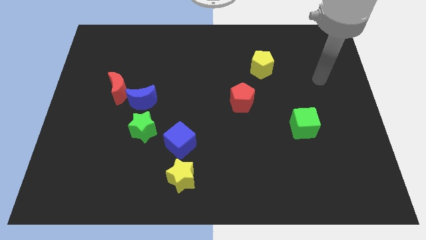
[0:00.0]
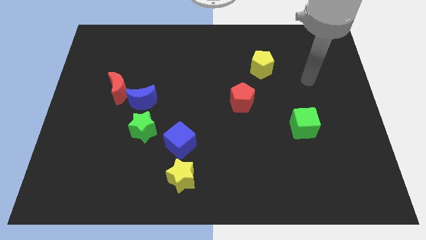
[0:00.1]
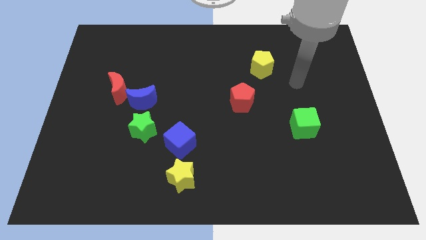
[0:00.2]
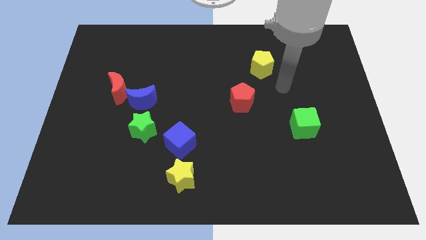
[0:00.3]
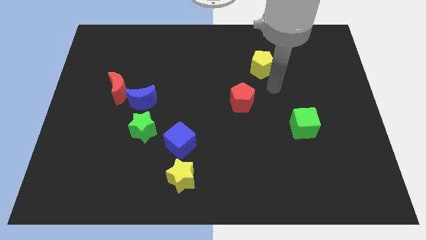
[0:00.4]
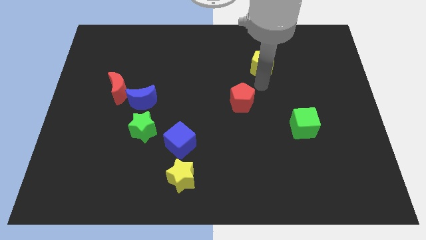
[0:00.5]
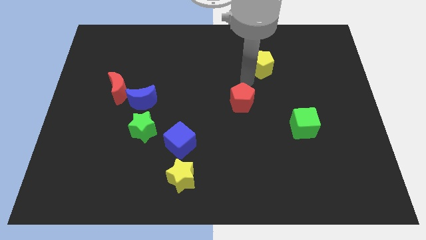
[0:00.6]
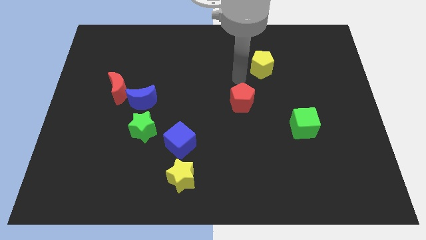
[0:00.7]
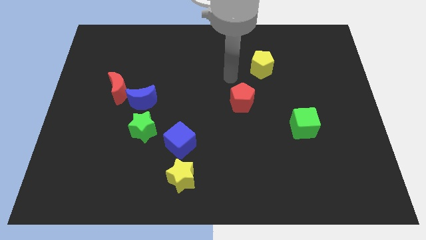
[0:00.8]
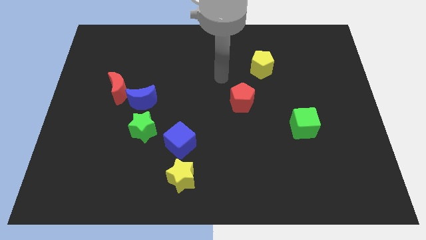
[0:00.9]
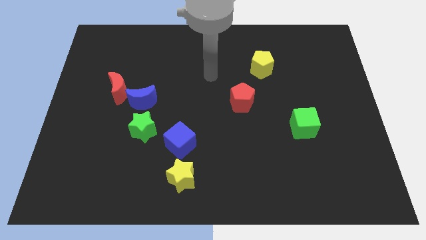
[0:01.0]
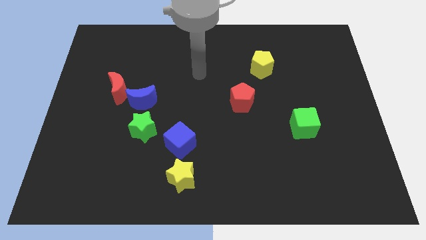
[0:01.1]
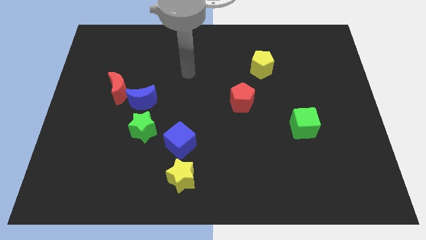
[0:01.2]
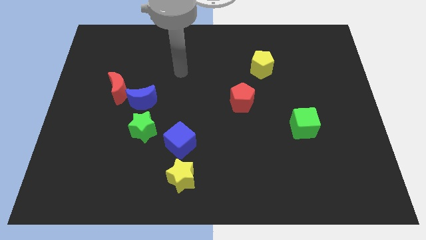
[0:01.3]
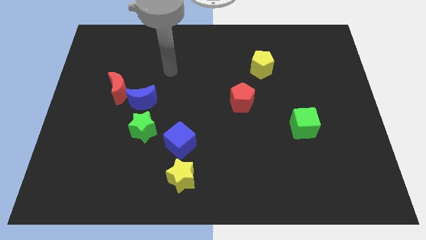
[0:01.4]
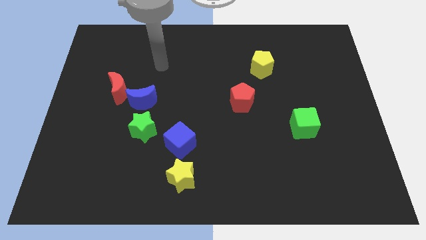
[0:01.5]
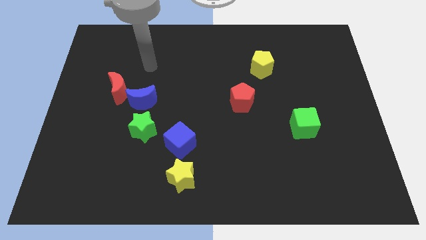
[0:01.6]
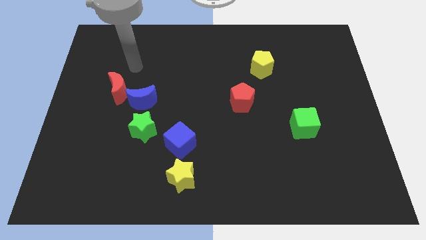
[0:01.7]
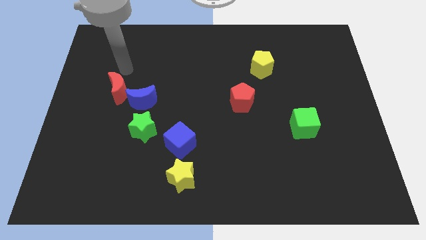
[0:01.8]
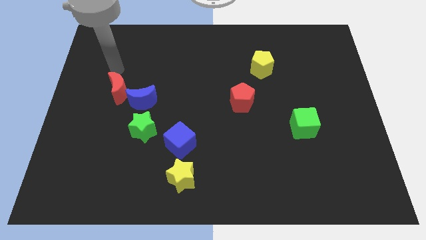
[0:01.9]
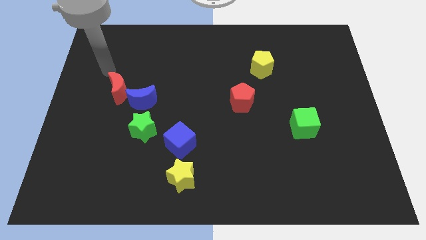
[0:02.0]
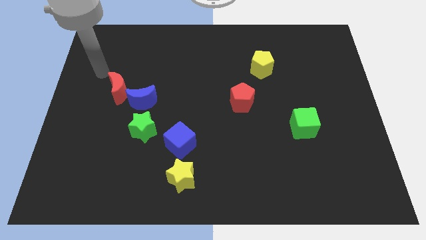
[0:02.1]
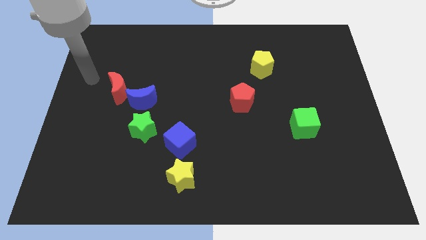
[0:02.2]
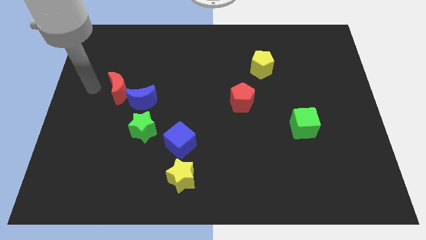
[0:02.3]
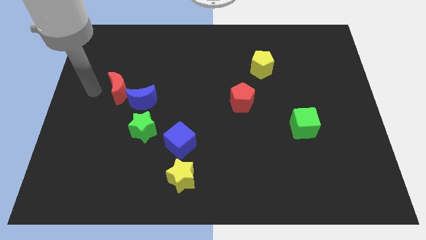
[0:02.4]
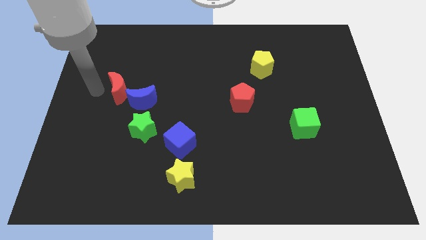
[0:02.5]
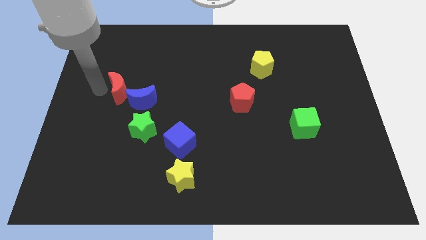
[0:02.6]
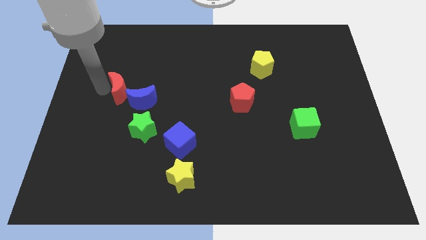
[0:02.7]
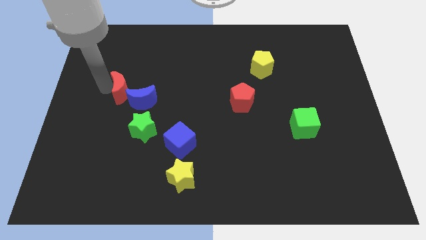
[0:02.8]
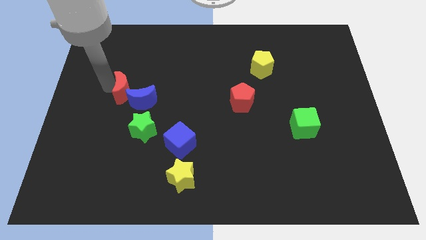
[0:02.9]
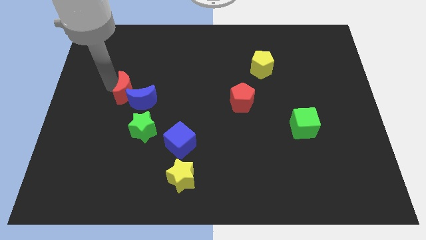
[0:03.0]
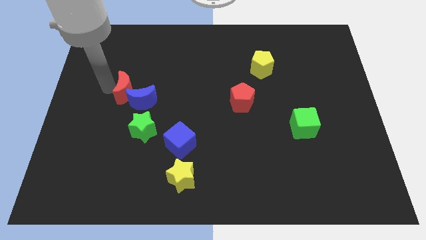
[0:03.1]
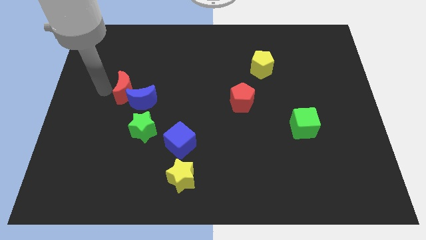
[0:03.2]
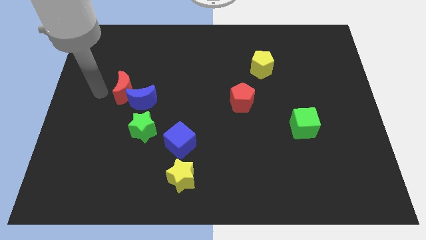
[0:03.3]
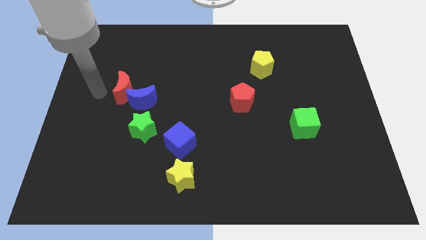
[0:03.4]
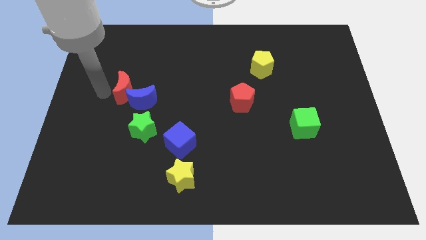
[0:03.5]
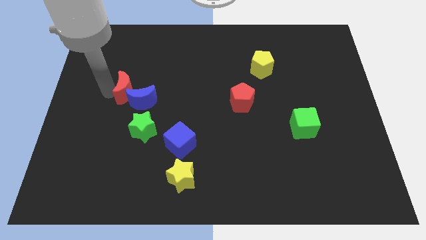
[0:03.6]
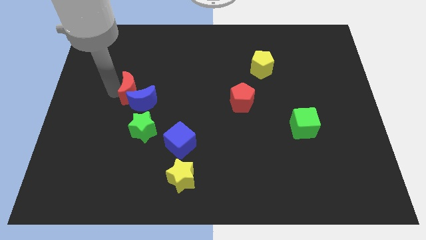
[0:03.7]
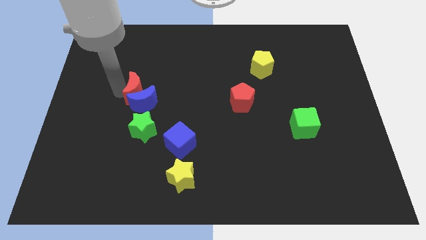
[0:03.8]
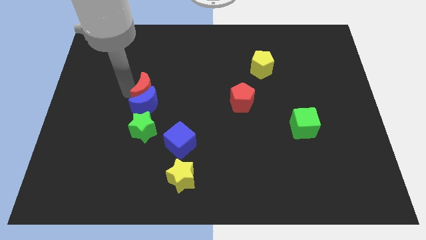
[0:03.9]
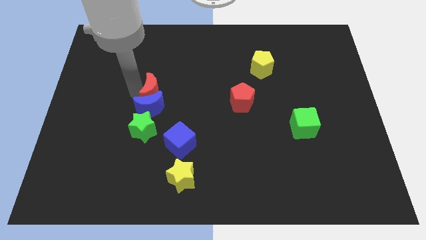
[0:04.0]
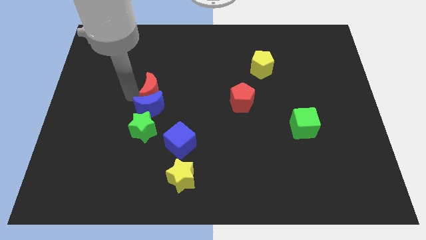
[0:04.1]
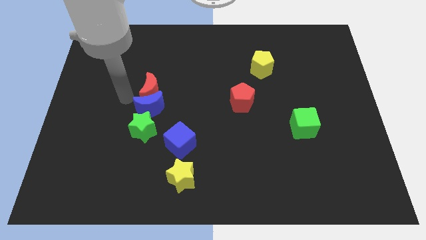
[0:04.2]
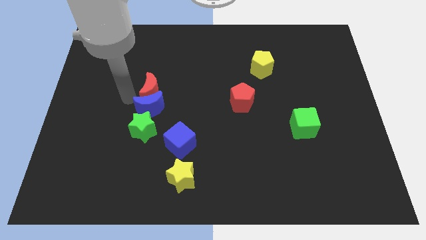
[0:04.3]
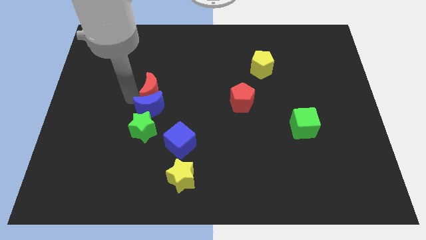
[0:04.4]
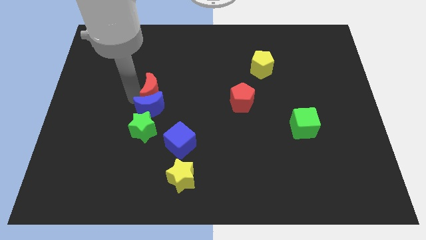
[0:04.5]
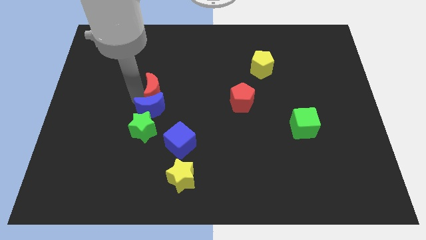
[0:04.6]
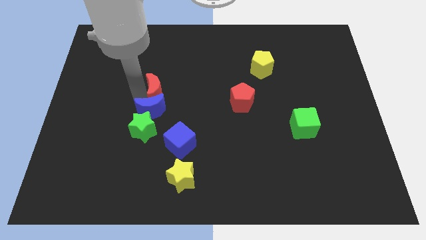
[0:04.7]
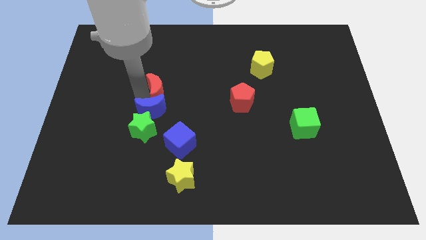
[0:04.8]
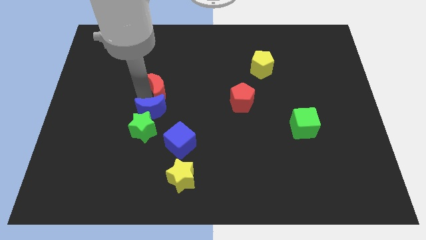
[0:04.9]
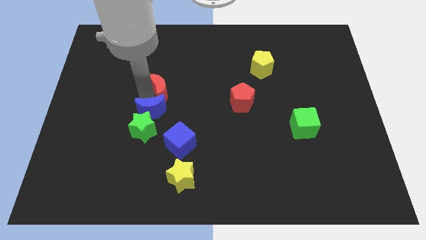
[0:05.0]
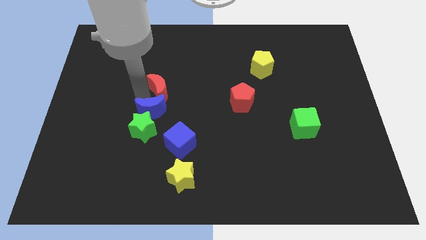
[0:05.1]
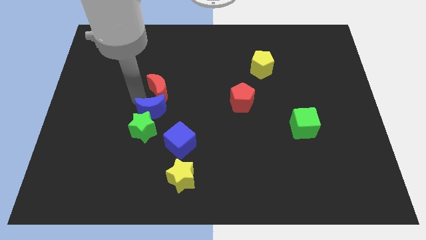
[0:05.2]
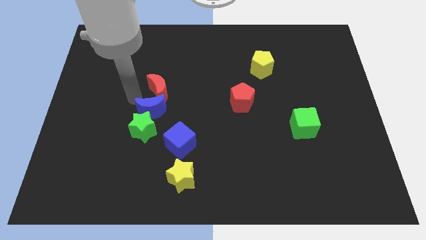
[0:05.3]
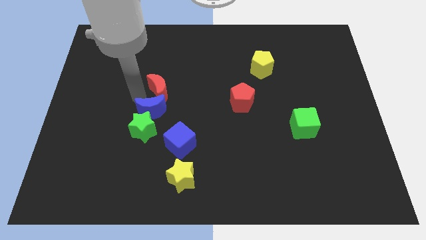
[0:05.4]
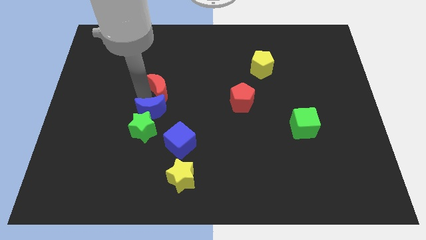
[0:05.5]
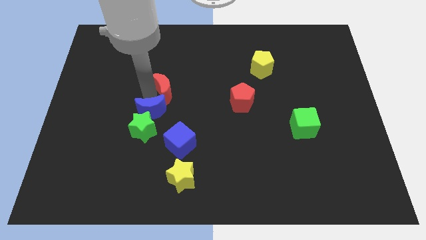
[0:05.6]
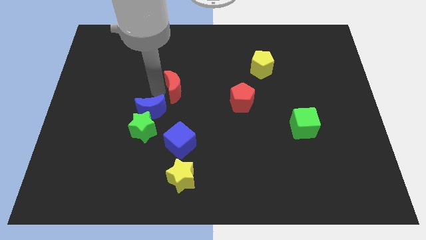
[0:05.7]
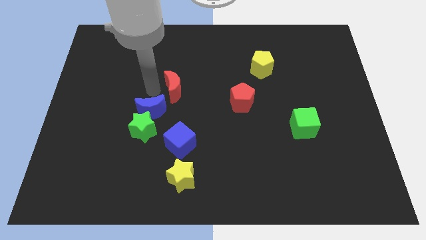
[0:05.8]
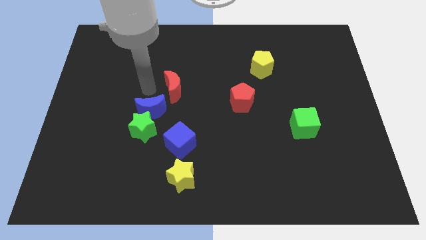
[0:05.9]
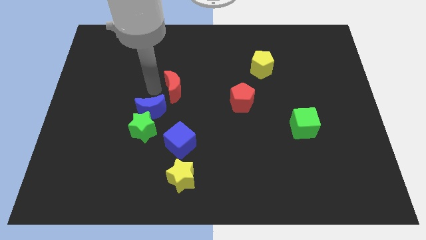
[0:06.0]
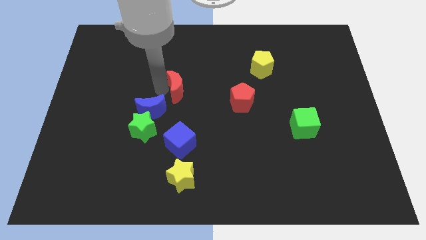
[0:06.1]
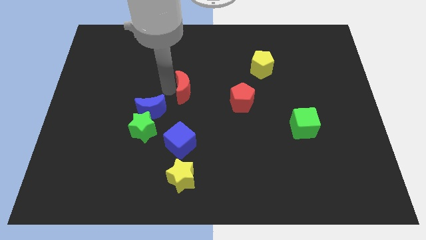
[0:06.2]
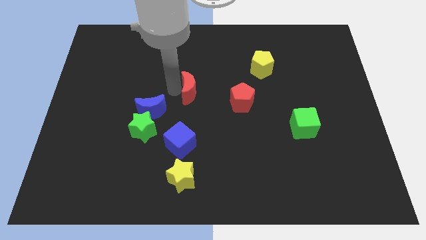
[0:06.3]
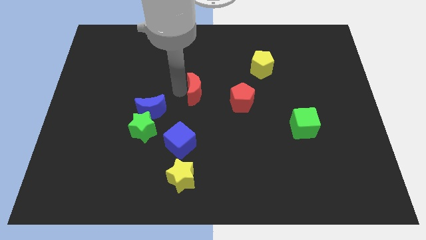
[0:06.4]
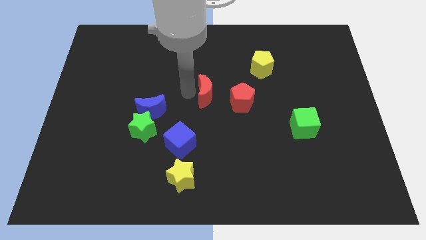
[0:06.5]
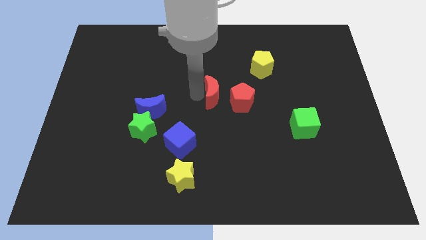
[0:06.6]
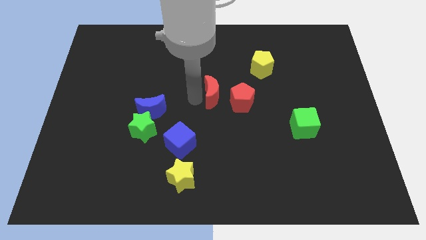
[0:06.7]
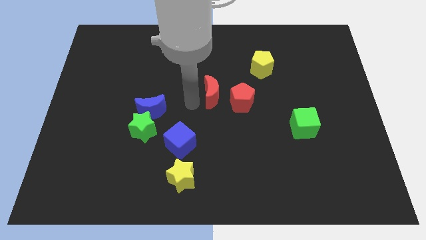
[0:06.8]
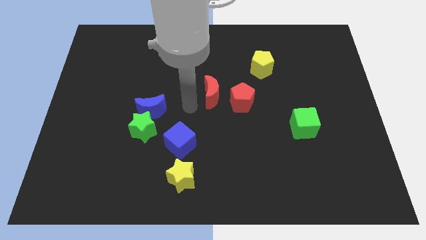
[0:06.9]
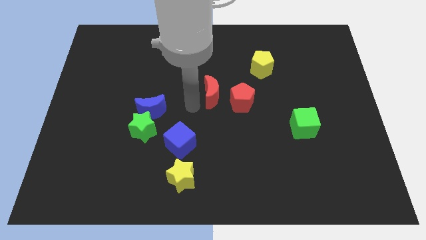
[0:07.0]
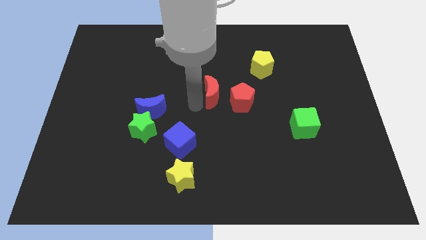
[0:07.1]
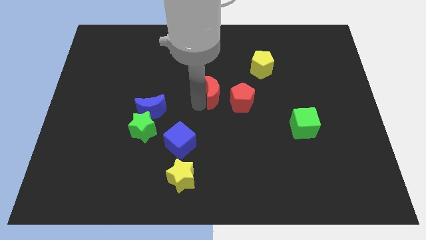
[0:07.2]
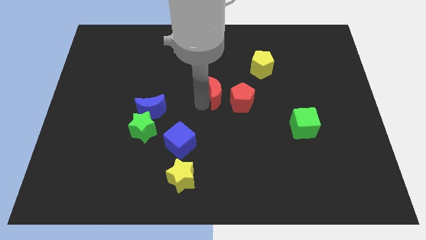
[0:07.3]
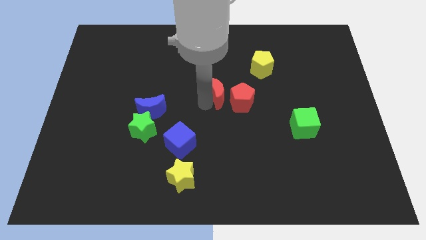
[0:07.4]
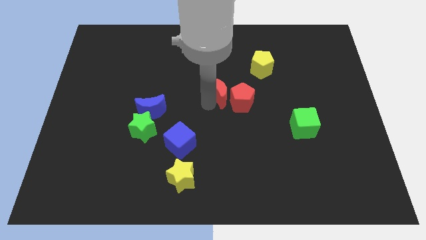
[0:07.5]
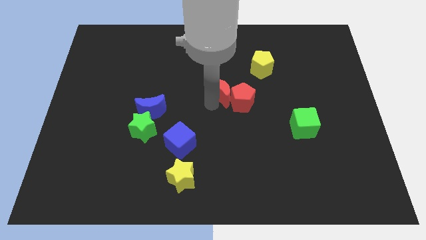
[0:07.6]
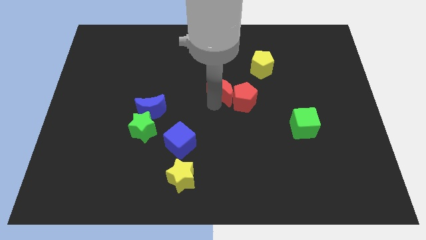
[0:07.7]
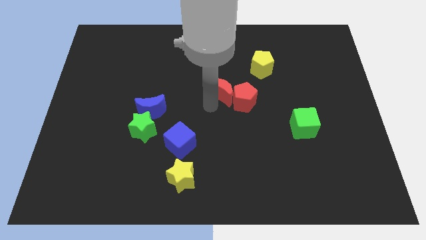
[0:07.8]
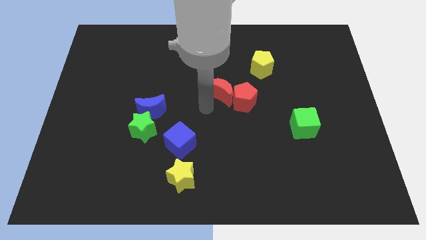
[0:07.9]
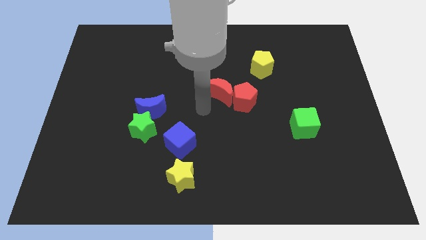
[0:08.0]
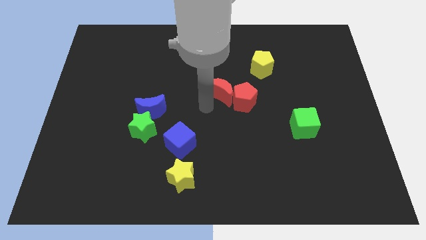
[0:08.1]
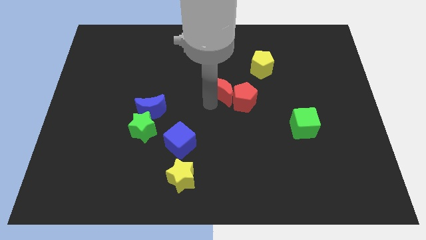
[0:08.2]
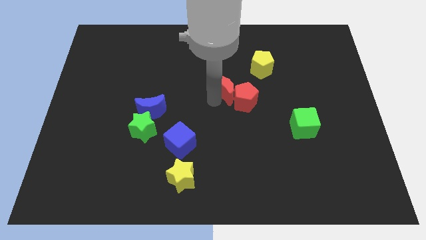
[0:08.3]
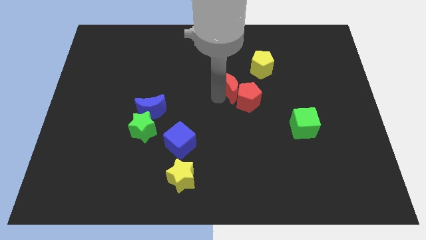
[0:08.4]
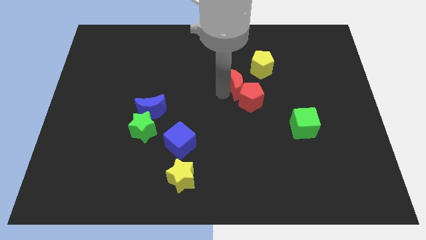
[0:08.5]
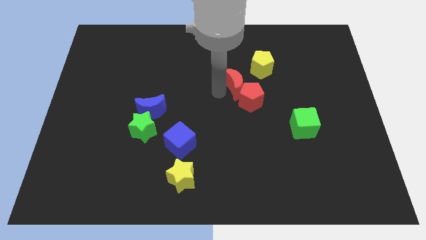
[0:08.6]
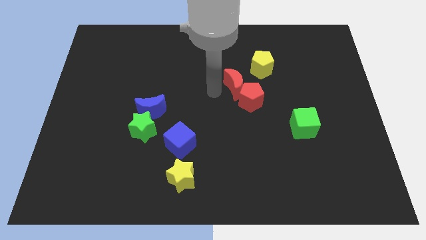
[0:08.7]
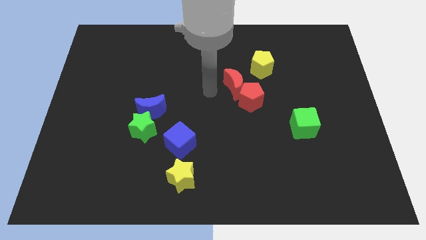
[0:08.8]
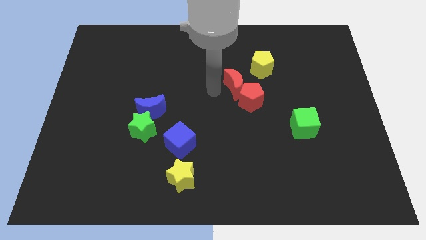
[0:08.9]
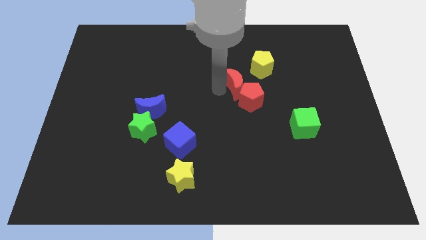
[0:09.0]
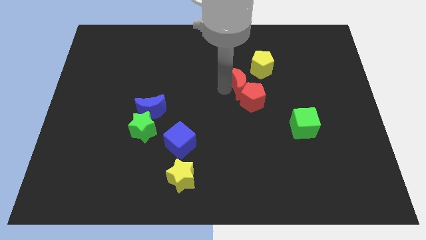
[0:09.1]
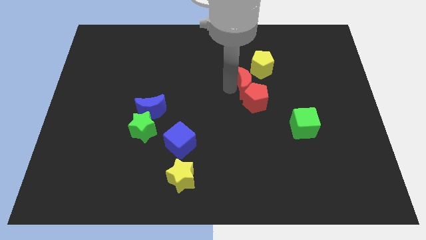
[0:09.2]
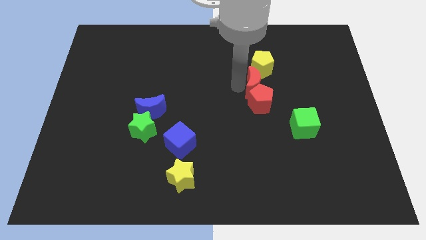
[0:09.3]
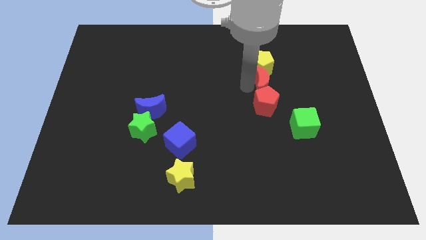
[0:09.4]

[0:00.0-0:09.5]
slide the red moon to the bottom right of the yellow pentagon
